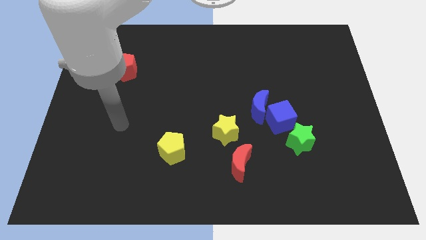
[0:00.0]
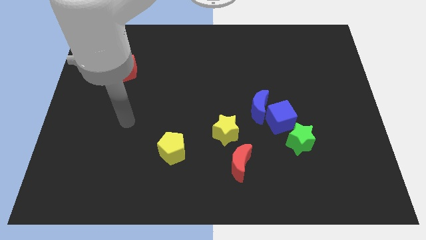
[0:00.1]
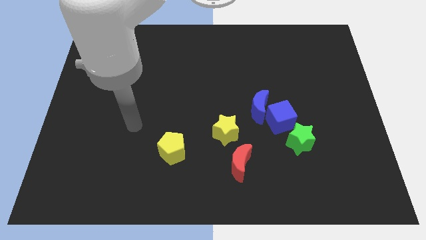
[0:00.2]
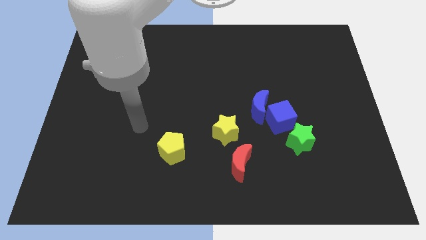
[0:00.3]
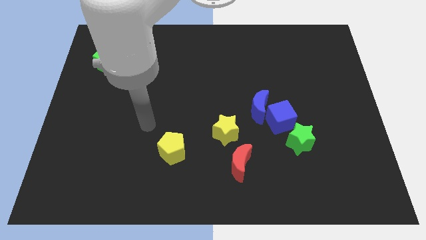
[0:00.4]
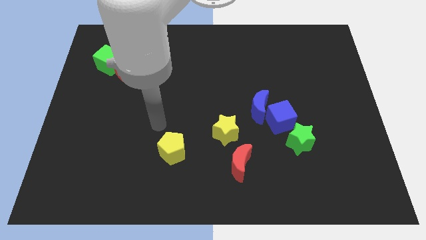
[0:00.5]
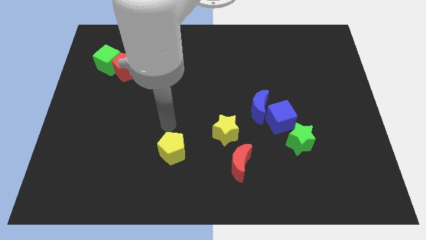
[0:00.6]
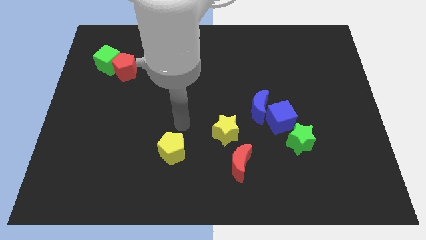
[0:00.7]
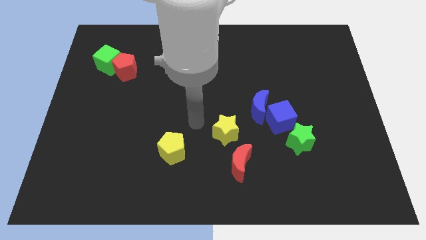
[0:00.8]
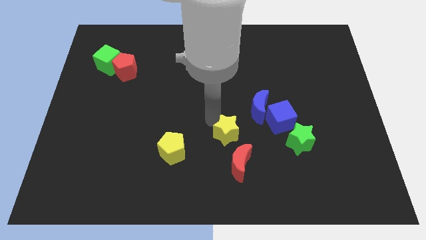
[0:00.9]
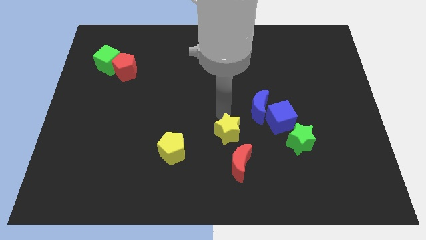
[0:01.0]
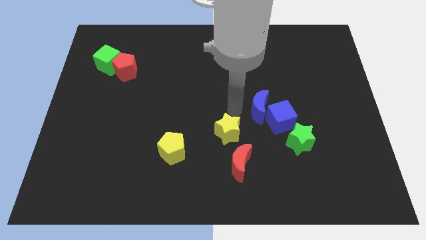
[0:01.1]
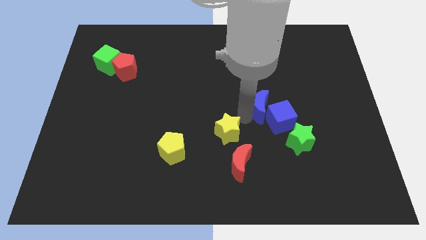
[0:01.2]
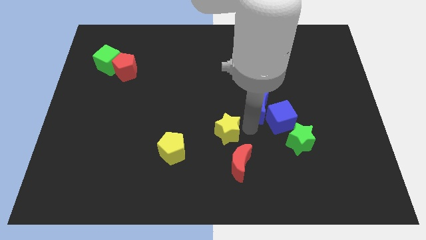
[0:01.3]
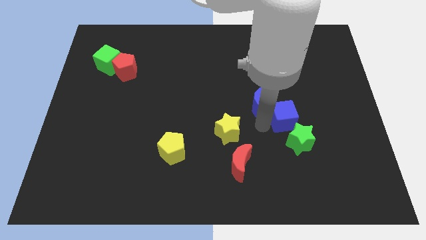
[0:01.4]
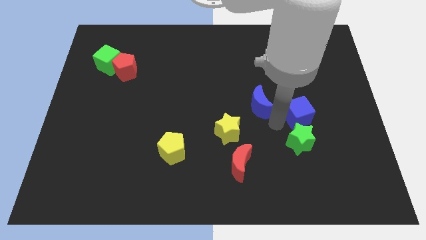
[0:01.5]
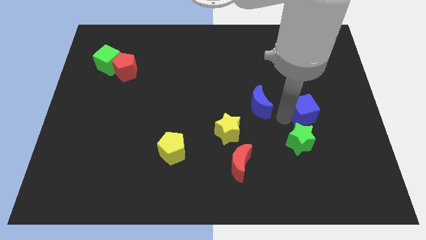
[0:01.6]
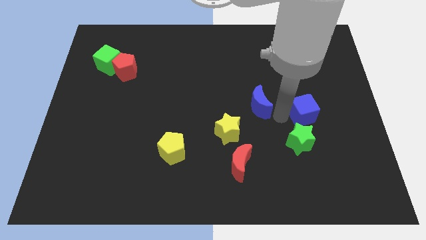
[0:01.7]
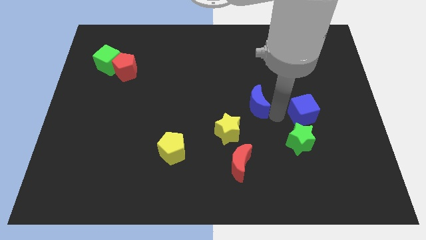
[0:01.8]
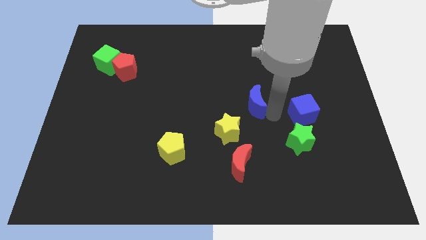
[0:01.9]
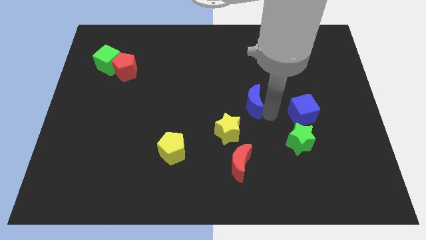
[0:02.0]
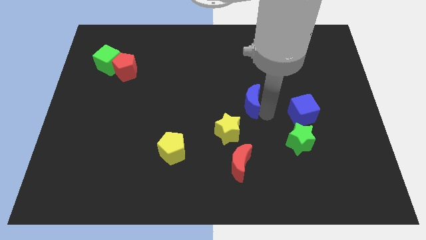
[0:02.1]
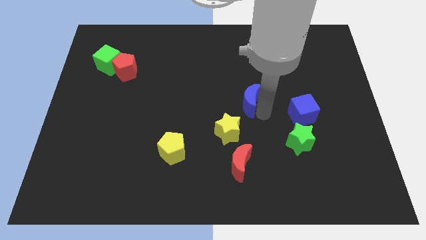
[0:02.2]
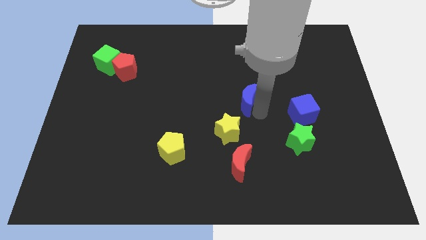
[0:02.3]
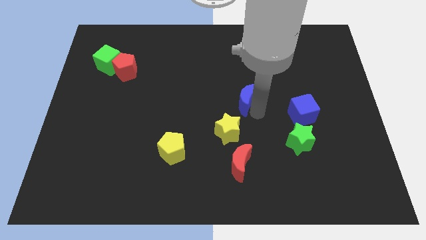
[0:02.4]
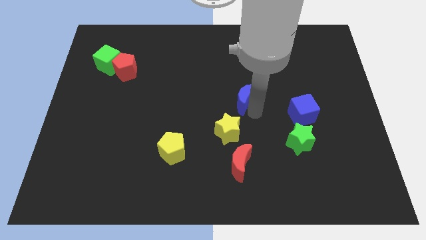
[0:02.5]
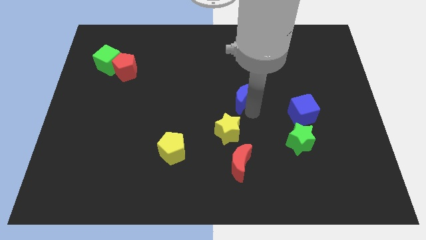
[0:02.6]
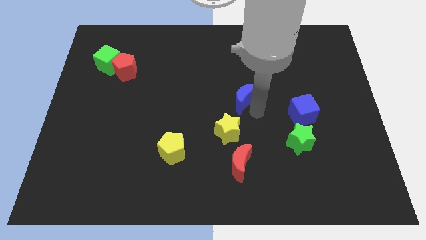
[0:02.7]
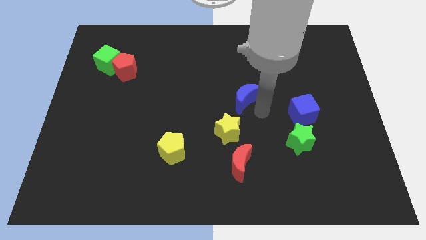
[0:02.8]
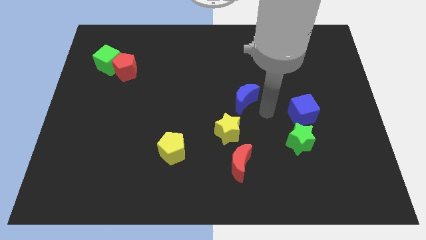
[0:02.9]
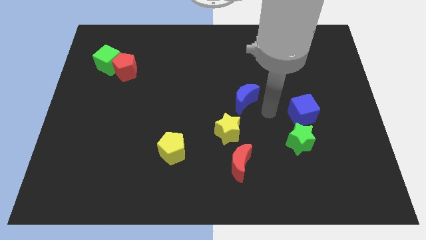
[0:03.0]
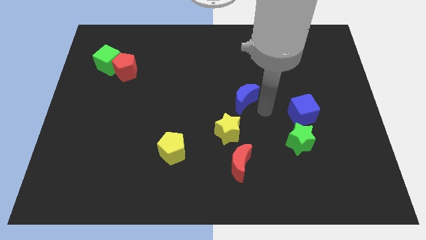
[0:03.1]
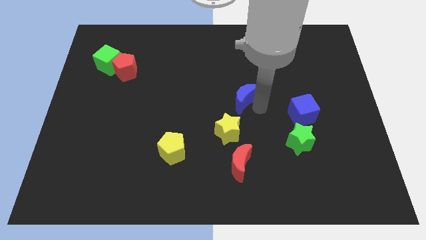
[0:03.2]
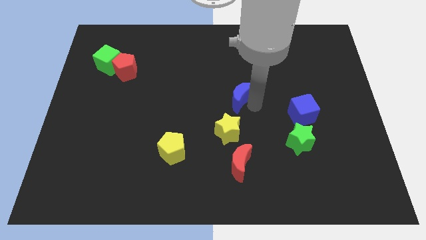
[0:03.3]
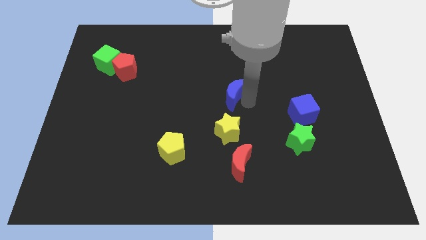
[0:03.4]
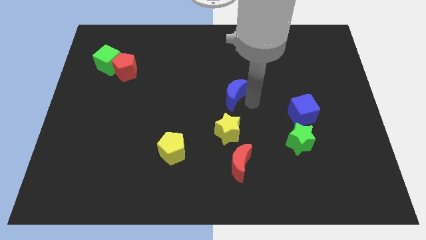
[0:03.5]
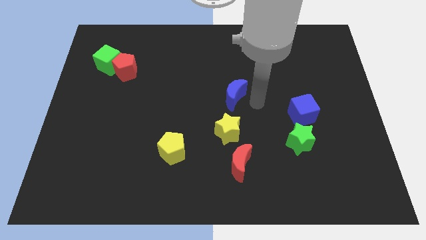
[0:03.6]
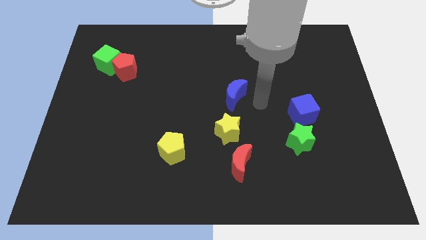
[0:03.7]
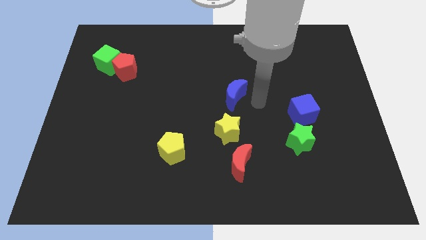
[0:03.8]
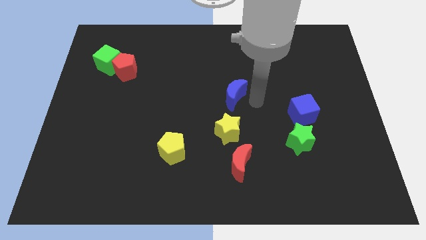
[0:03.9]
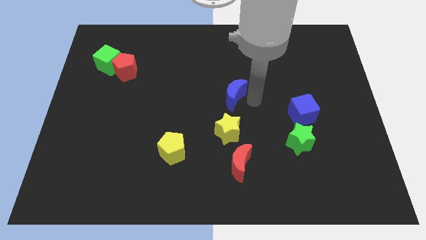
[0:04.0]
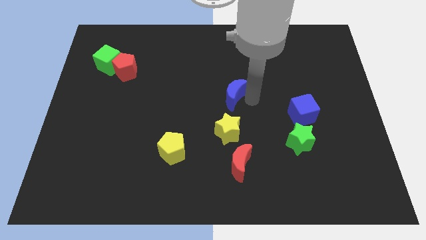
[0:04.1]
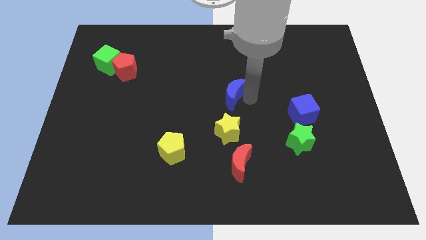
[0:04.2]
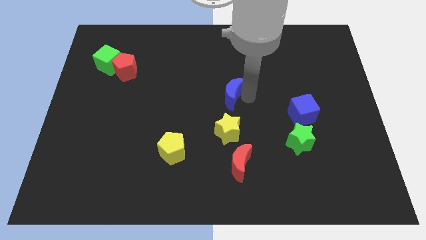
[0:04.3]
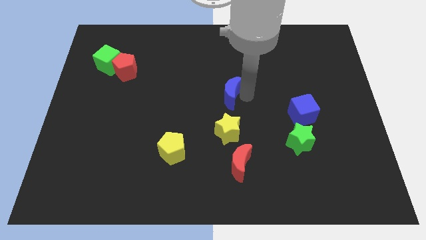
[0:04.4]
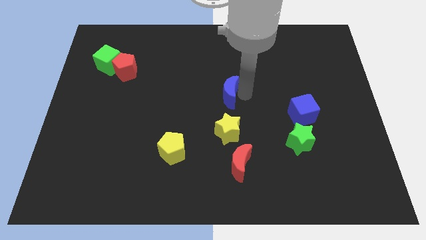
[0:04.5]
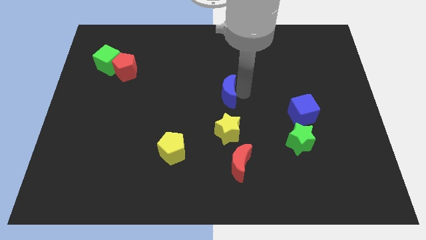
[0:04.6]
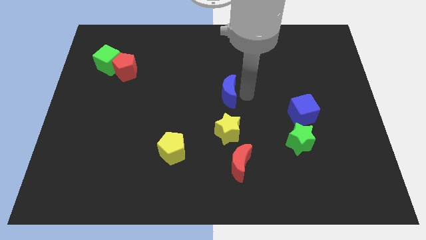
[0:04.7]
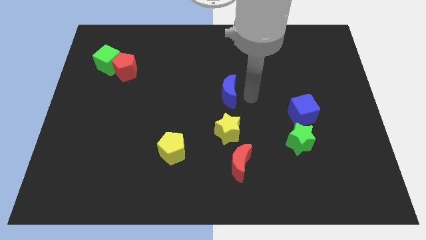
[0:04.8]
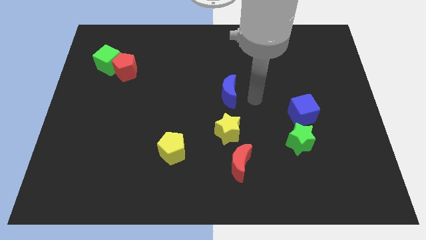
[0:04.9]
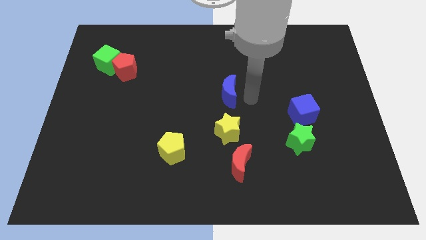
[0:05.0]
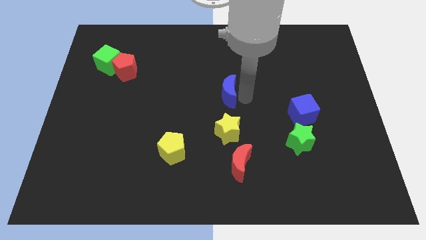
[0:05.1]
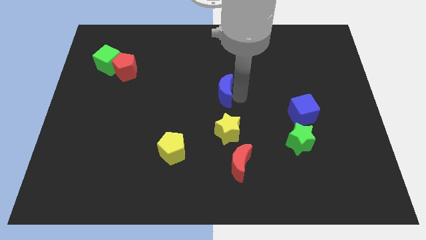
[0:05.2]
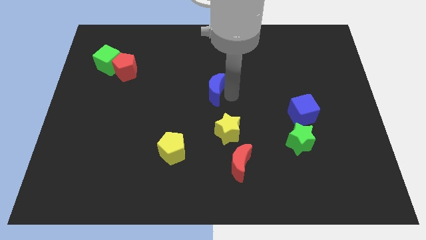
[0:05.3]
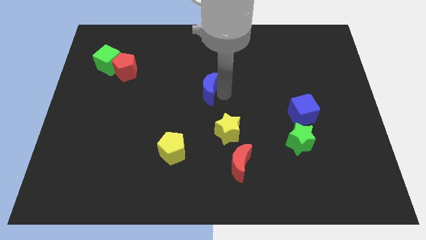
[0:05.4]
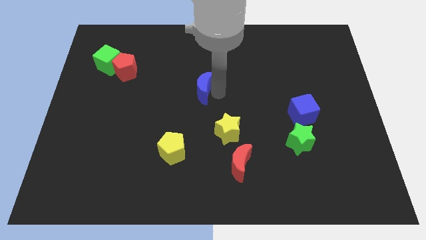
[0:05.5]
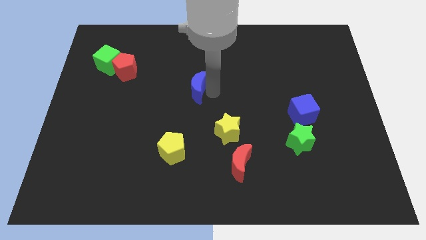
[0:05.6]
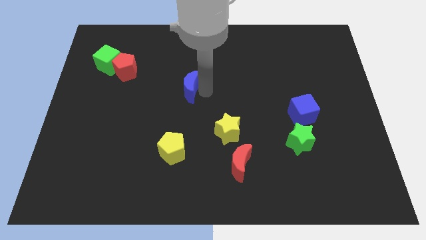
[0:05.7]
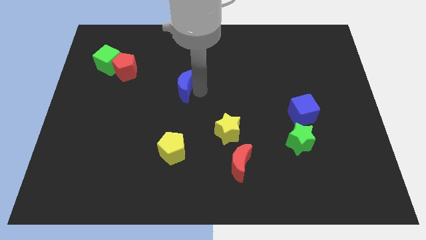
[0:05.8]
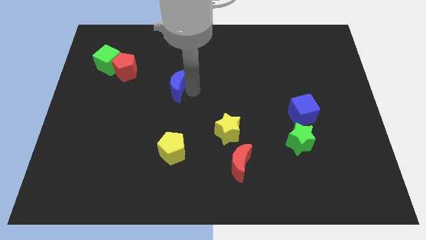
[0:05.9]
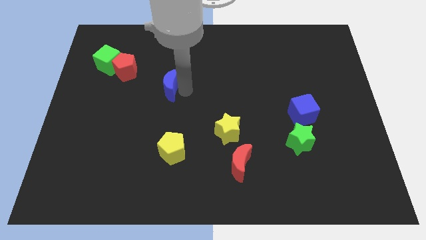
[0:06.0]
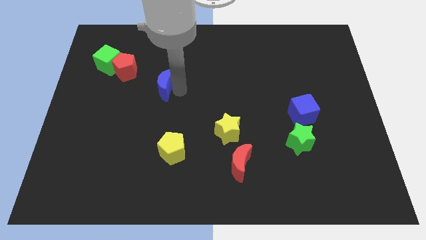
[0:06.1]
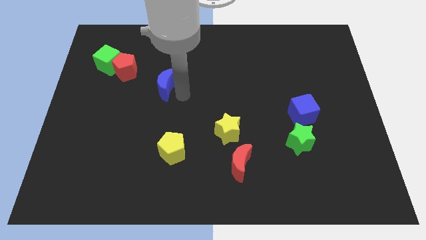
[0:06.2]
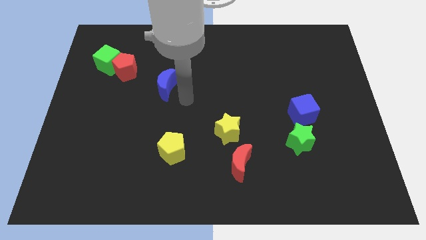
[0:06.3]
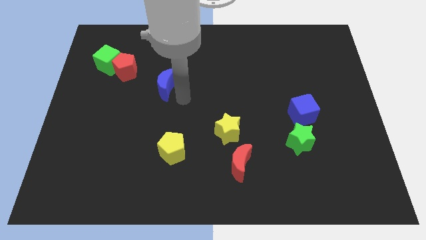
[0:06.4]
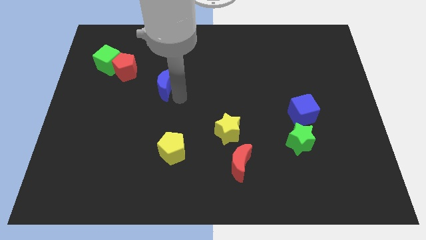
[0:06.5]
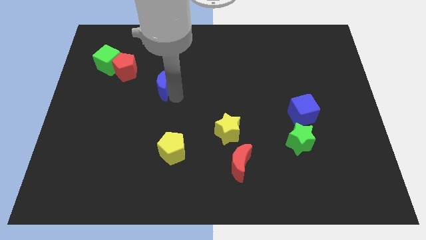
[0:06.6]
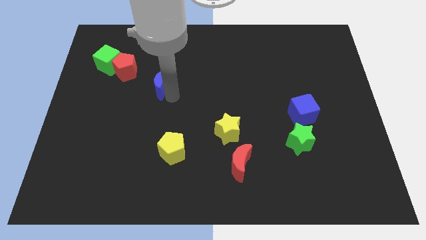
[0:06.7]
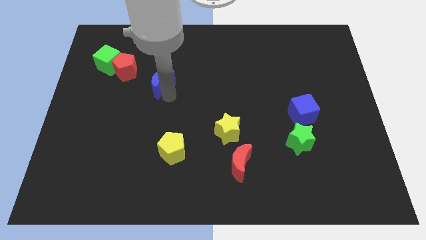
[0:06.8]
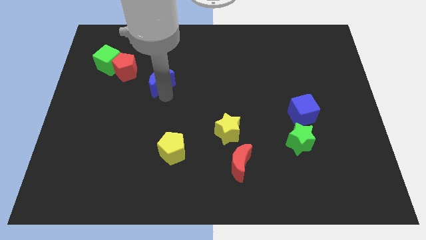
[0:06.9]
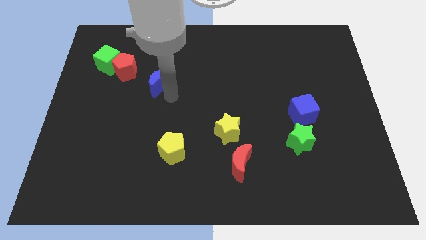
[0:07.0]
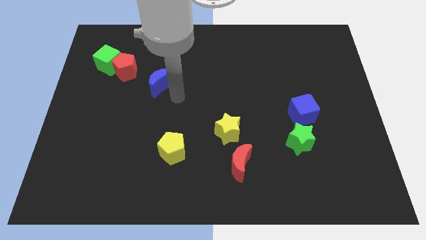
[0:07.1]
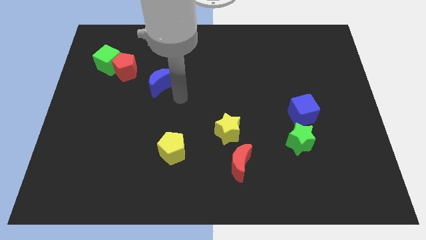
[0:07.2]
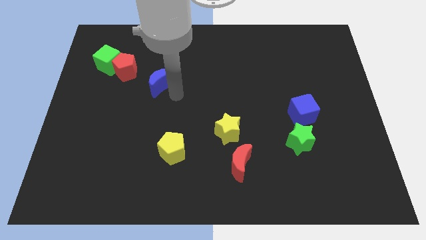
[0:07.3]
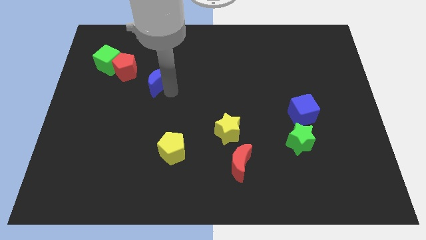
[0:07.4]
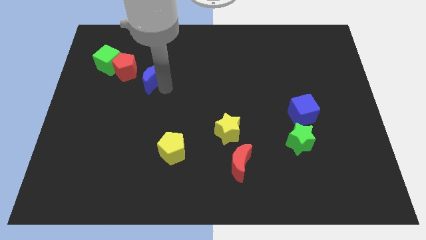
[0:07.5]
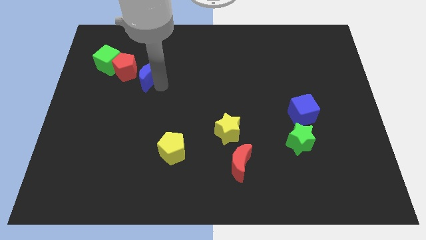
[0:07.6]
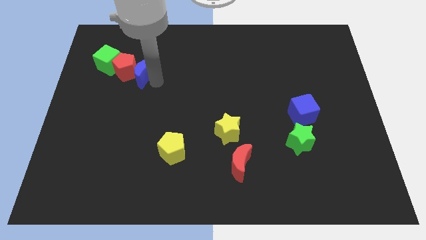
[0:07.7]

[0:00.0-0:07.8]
slide the blue moon next to the red pentagon
